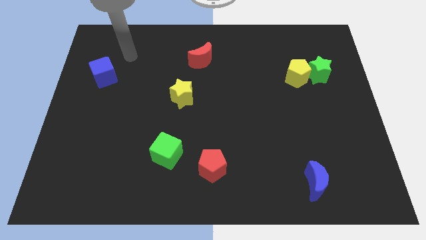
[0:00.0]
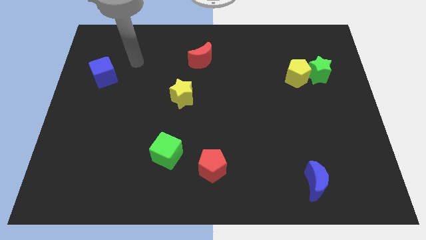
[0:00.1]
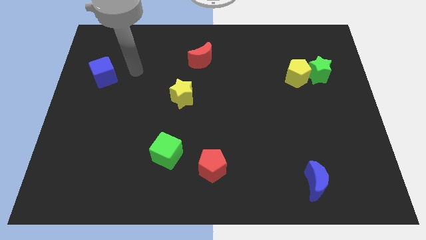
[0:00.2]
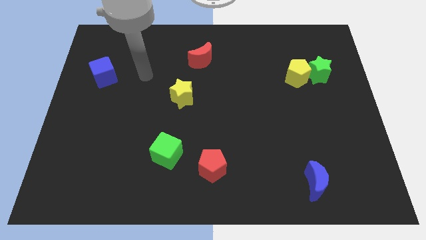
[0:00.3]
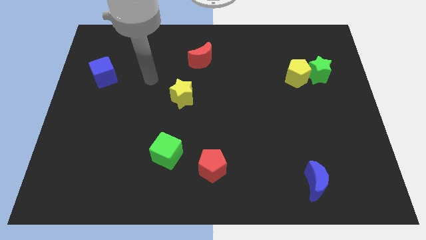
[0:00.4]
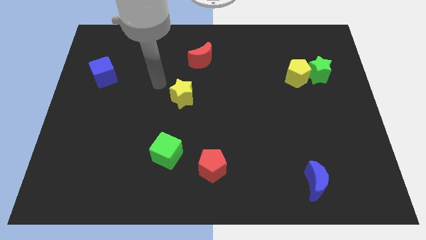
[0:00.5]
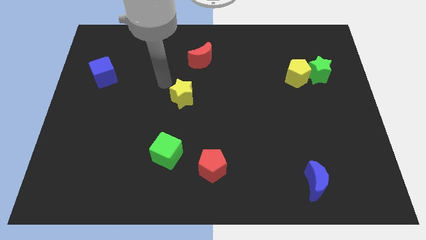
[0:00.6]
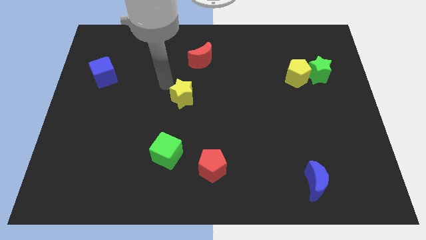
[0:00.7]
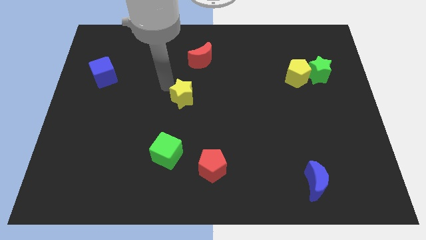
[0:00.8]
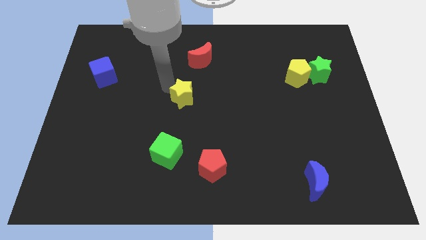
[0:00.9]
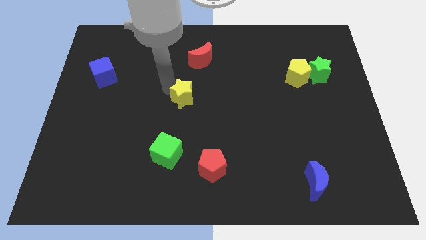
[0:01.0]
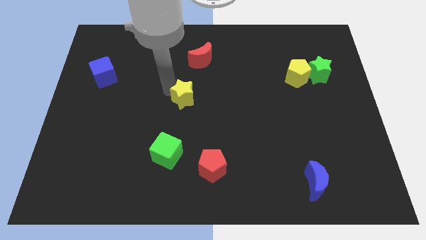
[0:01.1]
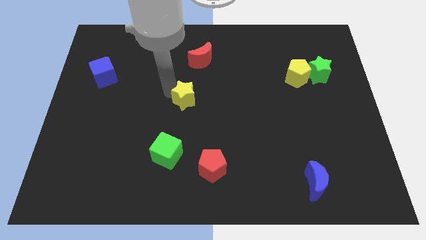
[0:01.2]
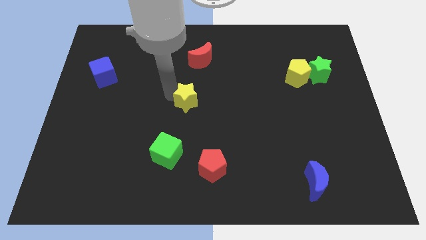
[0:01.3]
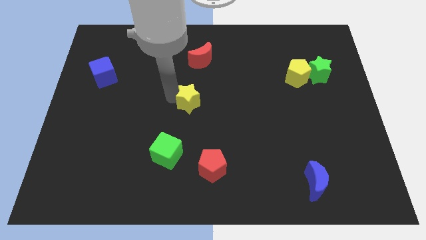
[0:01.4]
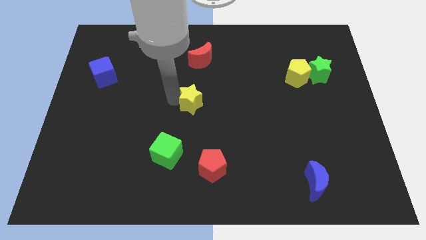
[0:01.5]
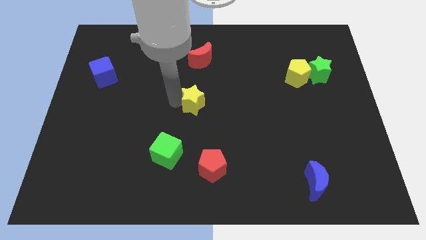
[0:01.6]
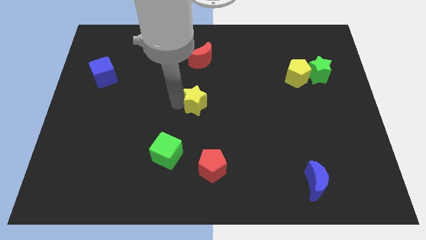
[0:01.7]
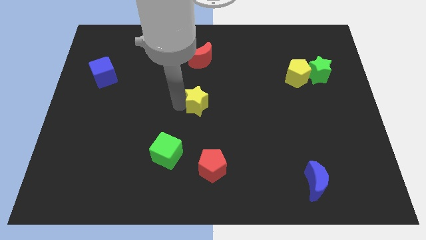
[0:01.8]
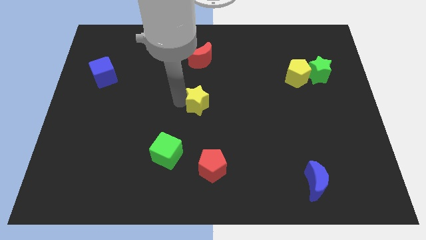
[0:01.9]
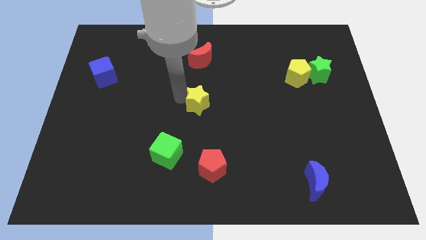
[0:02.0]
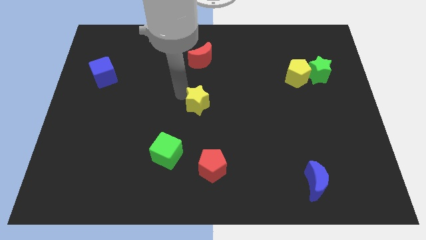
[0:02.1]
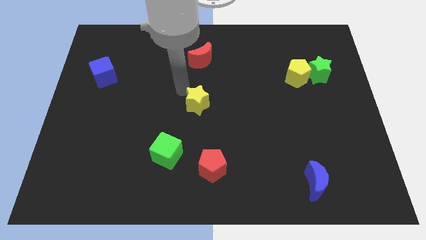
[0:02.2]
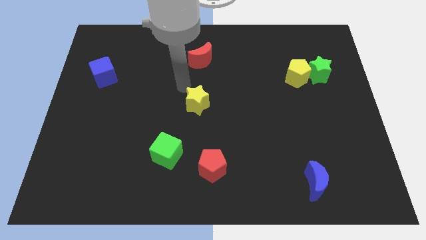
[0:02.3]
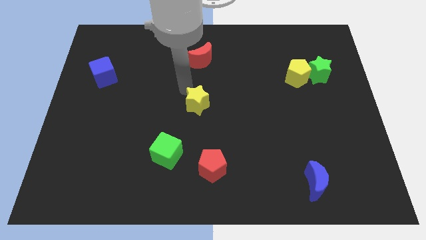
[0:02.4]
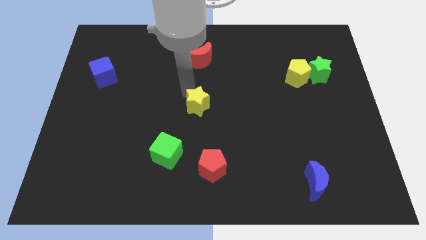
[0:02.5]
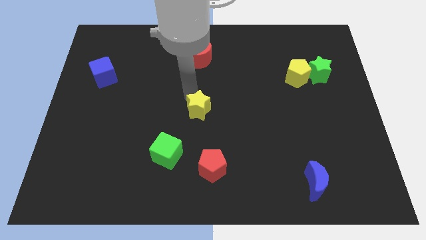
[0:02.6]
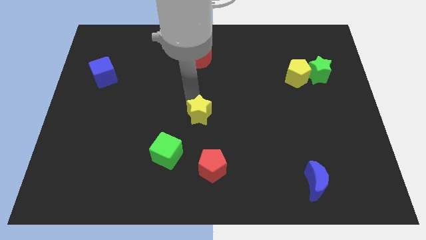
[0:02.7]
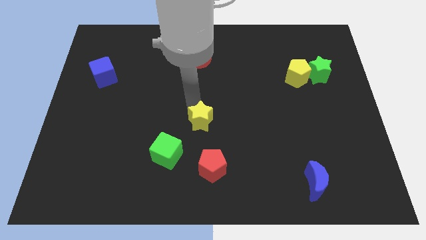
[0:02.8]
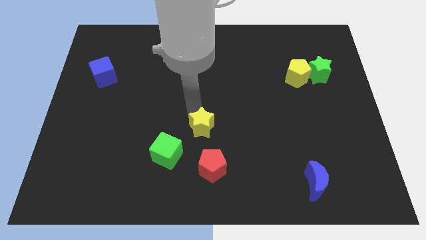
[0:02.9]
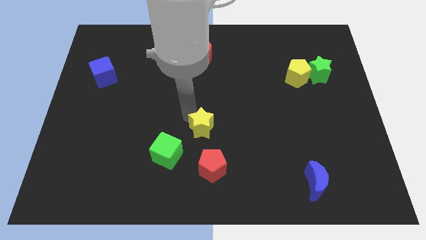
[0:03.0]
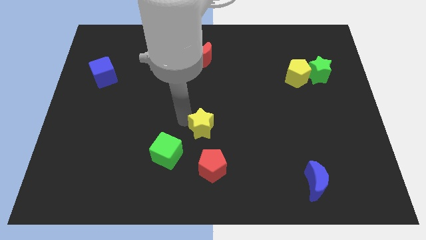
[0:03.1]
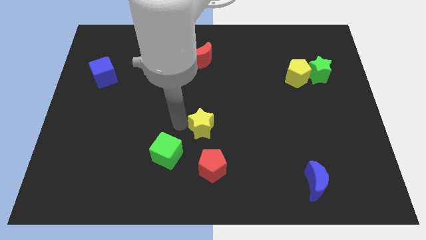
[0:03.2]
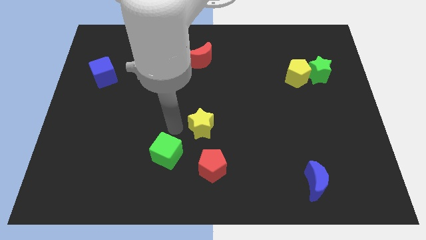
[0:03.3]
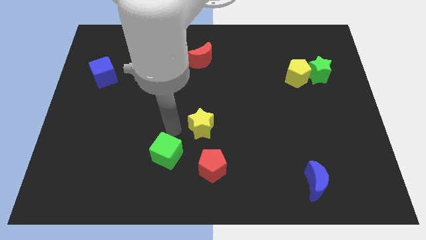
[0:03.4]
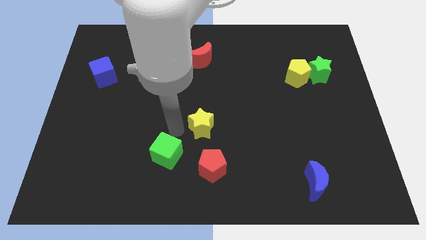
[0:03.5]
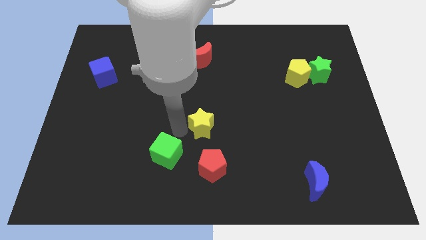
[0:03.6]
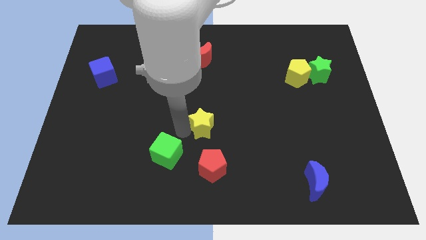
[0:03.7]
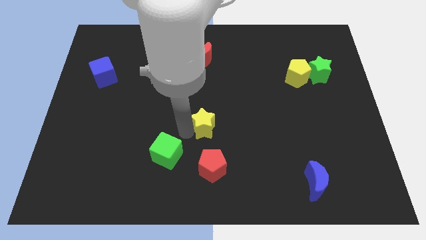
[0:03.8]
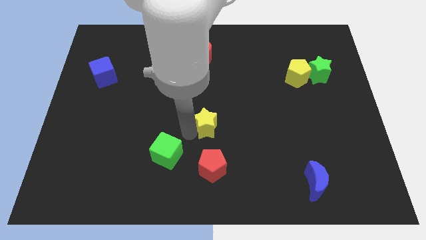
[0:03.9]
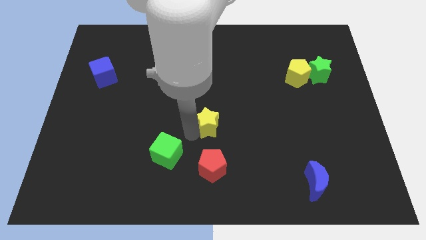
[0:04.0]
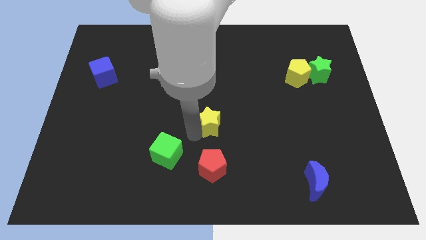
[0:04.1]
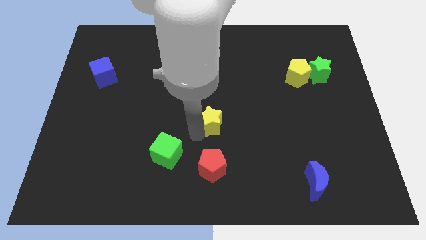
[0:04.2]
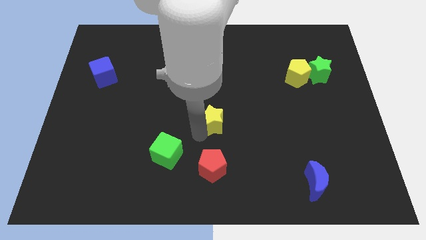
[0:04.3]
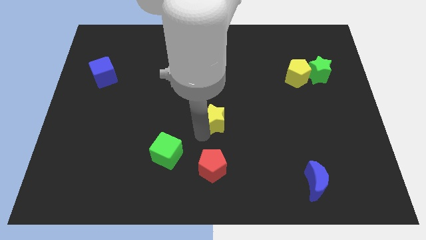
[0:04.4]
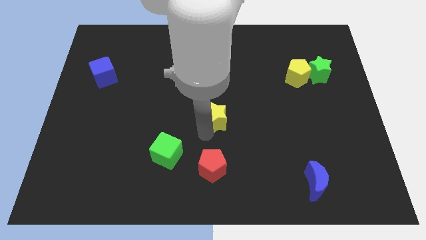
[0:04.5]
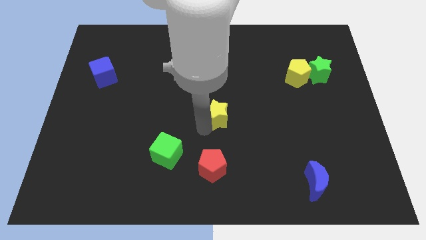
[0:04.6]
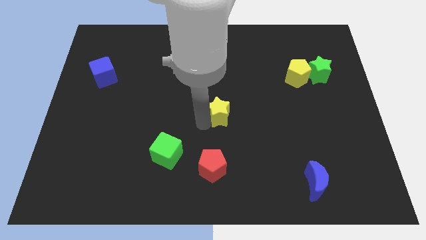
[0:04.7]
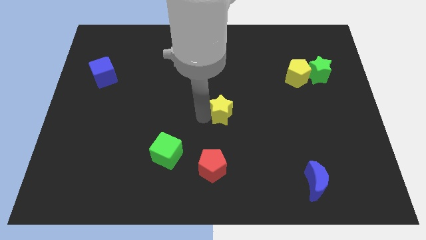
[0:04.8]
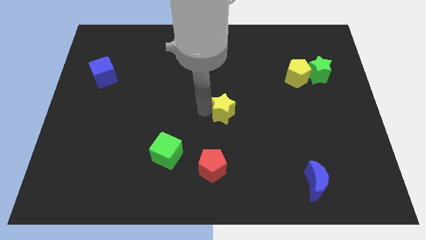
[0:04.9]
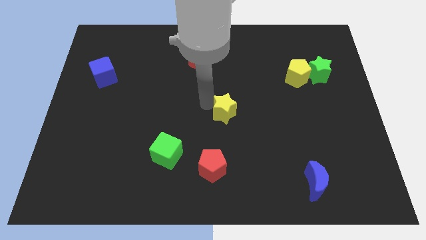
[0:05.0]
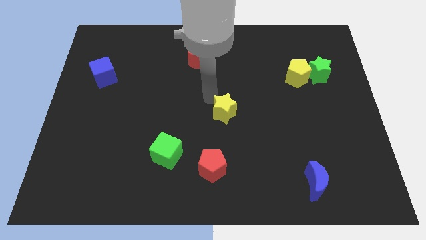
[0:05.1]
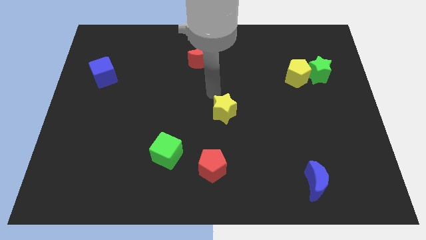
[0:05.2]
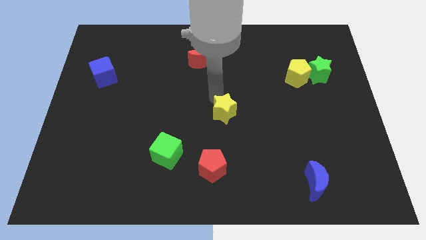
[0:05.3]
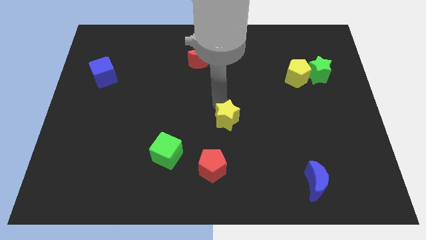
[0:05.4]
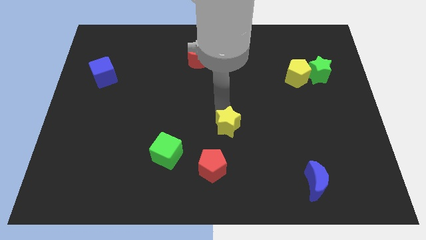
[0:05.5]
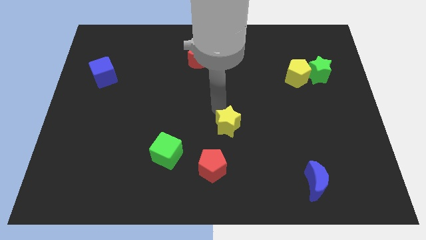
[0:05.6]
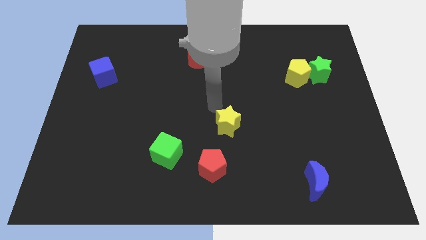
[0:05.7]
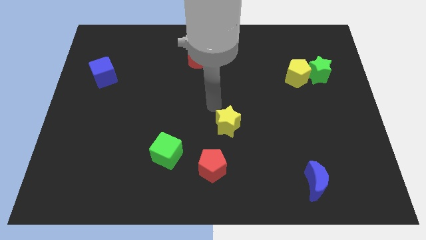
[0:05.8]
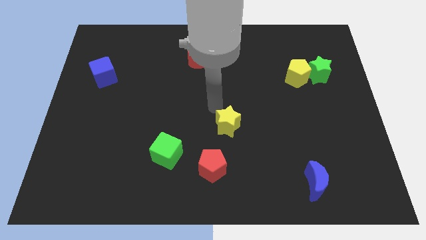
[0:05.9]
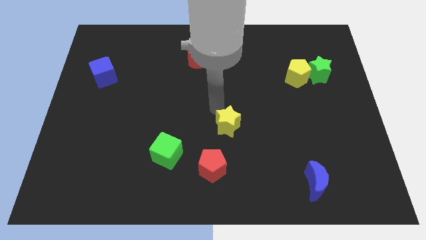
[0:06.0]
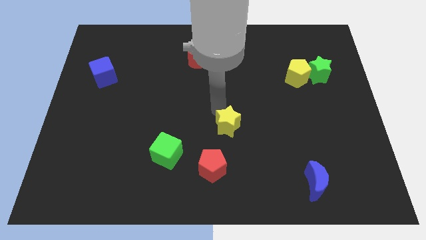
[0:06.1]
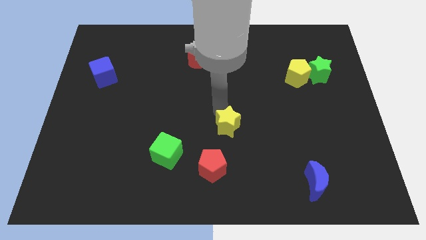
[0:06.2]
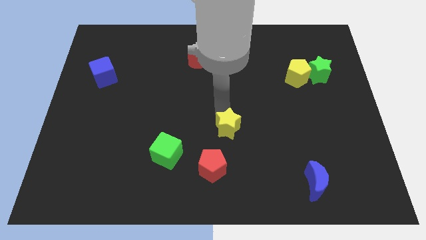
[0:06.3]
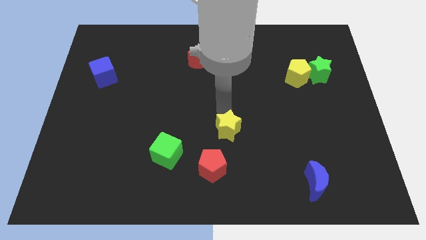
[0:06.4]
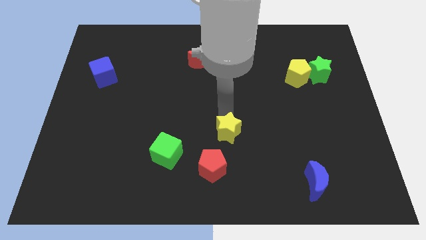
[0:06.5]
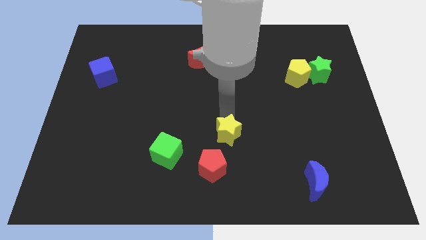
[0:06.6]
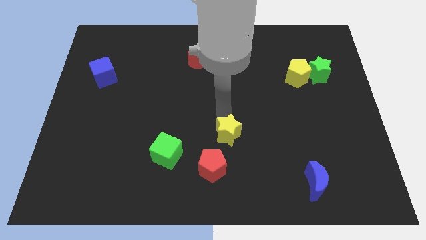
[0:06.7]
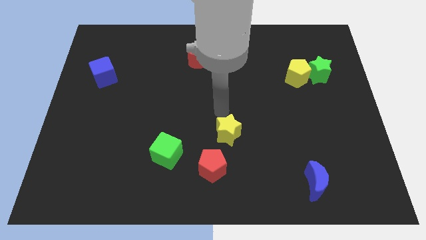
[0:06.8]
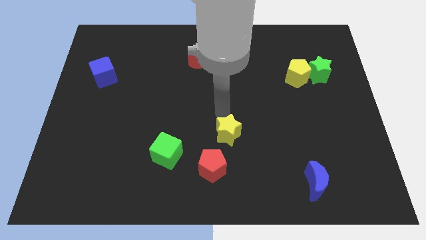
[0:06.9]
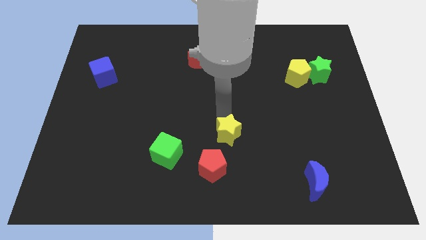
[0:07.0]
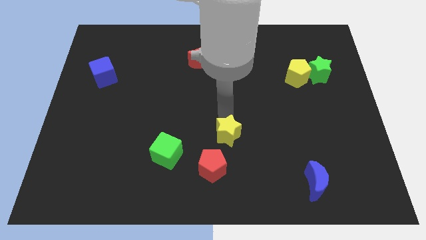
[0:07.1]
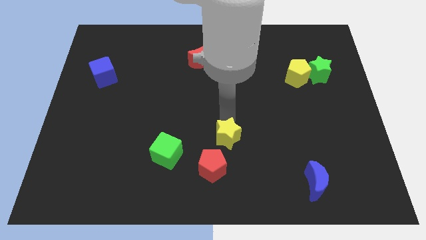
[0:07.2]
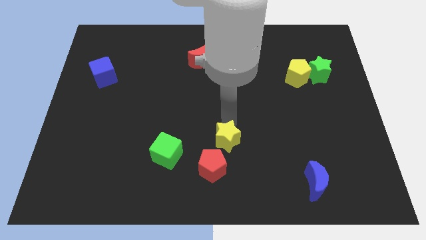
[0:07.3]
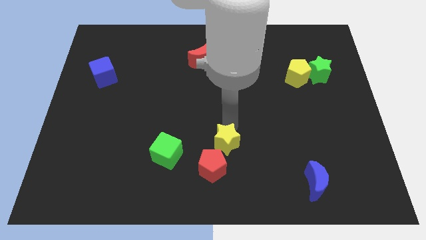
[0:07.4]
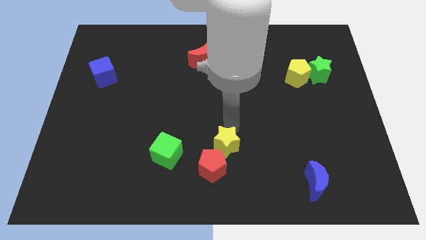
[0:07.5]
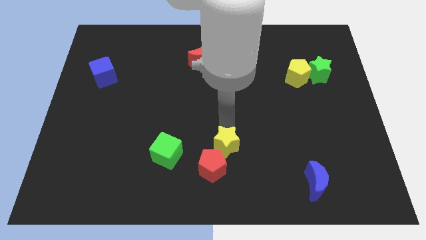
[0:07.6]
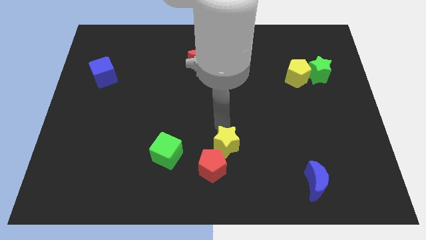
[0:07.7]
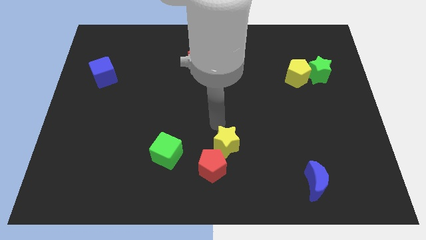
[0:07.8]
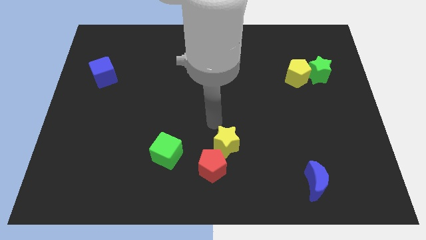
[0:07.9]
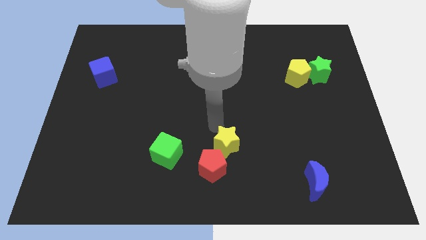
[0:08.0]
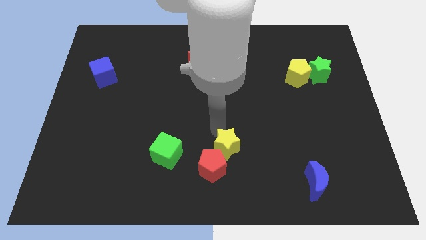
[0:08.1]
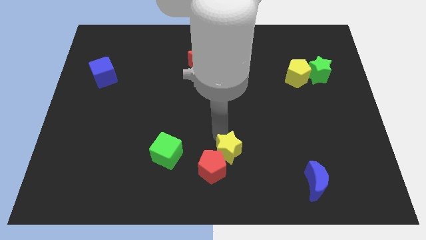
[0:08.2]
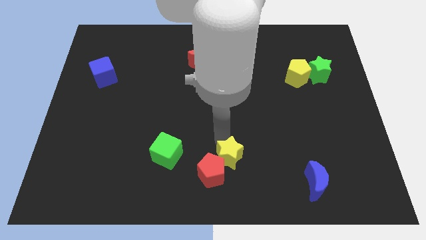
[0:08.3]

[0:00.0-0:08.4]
push the yellow star to the bottom side
